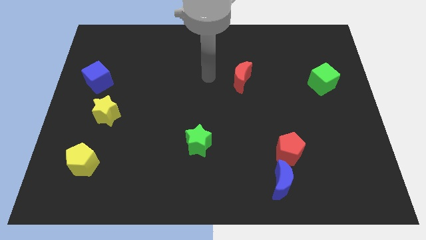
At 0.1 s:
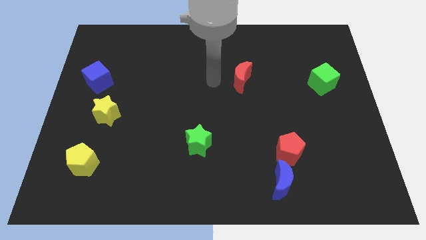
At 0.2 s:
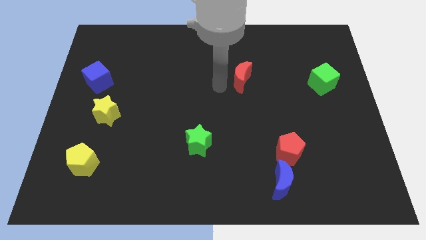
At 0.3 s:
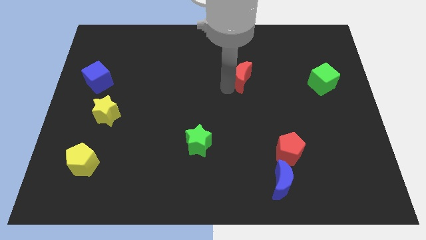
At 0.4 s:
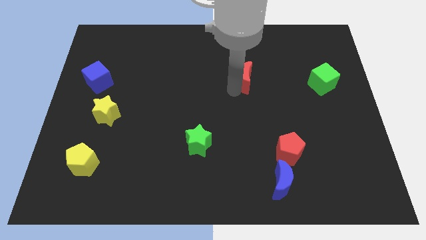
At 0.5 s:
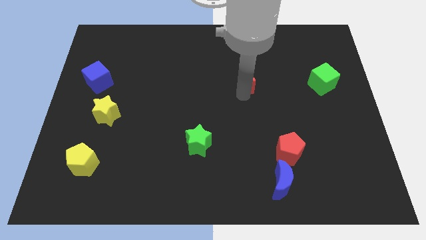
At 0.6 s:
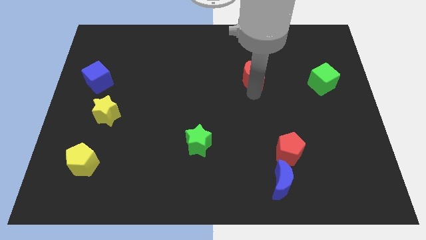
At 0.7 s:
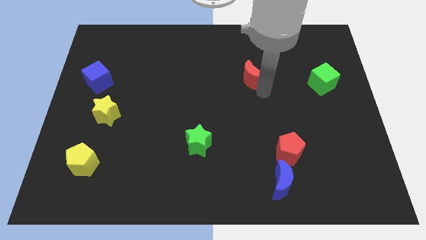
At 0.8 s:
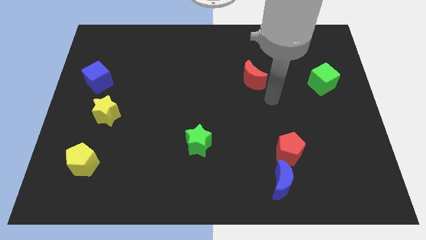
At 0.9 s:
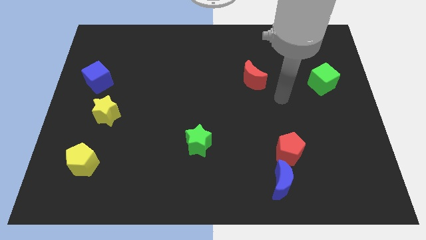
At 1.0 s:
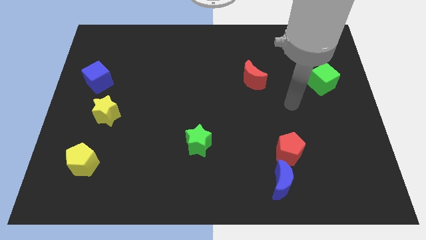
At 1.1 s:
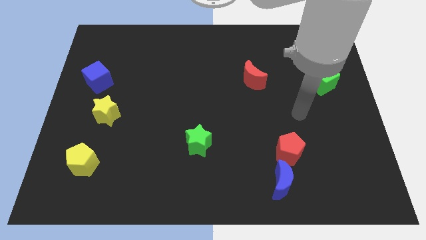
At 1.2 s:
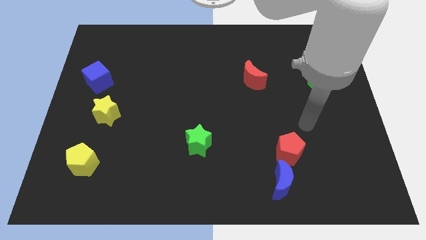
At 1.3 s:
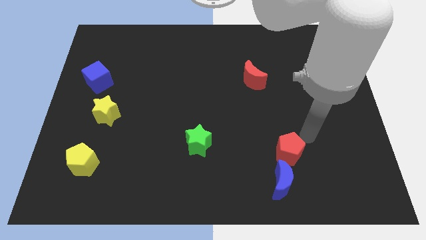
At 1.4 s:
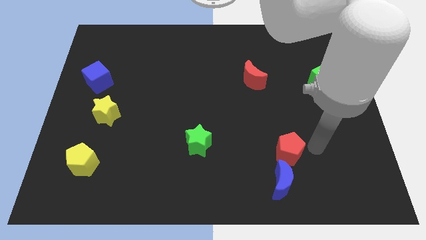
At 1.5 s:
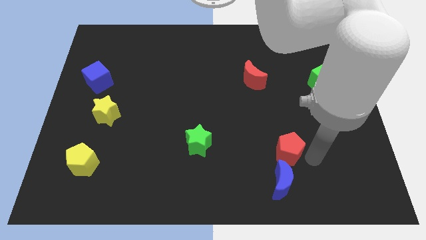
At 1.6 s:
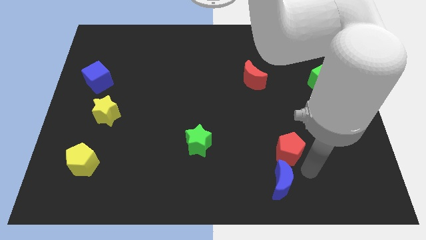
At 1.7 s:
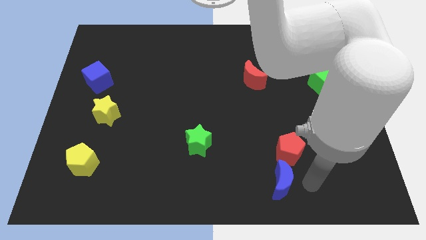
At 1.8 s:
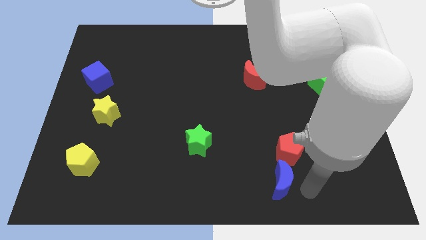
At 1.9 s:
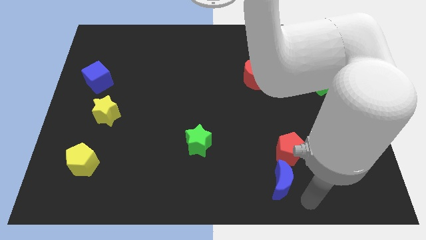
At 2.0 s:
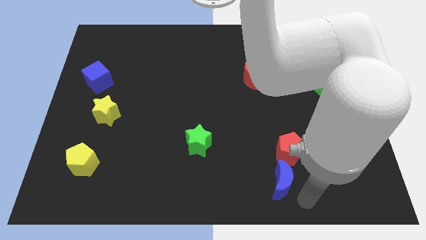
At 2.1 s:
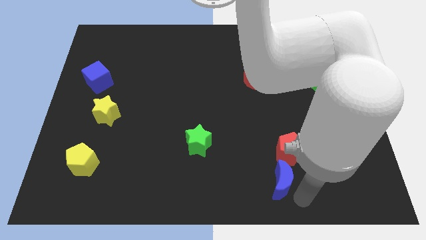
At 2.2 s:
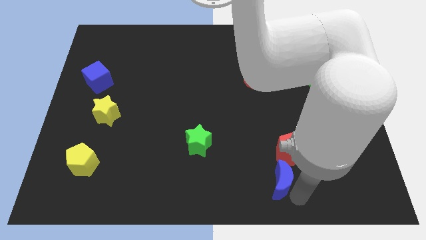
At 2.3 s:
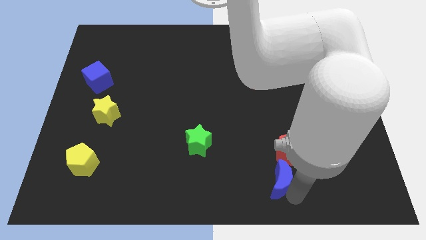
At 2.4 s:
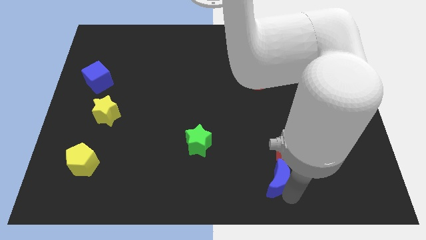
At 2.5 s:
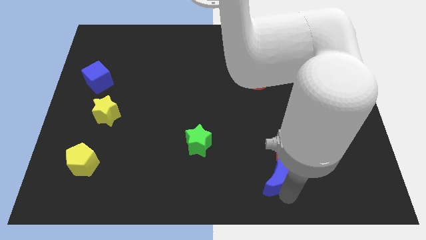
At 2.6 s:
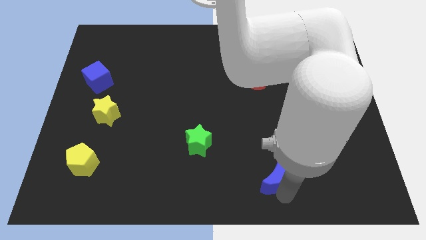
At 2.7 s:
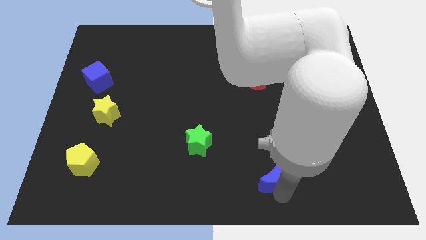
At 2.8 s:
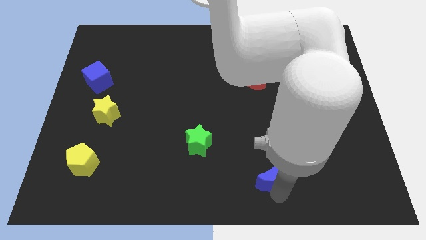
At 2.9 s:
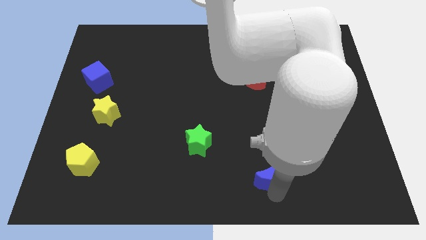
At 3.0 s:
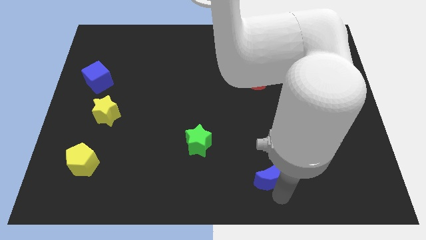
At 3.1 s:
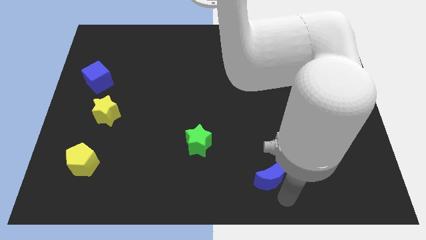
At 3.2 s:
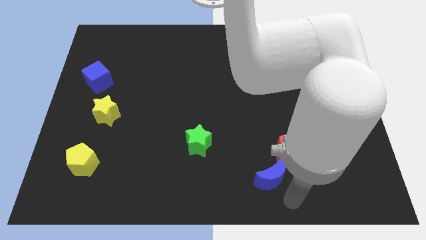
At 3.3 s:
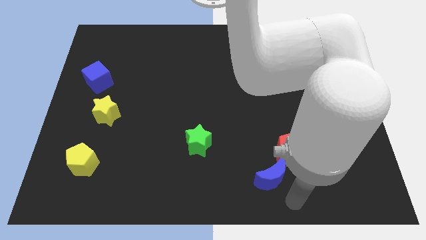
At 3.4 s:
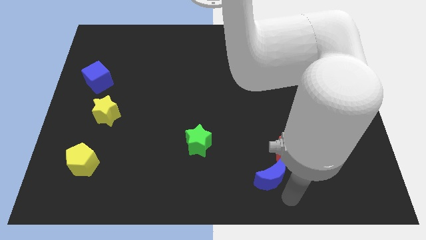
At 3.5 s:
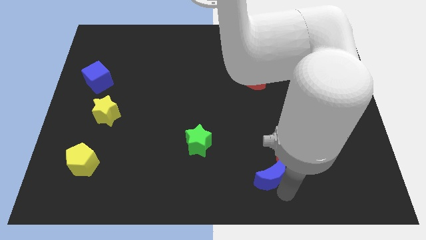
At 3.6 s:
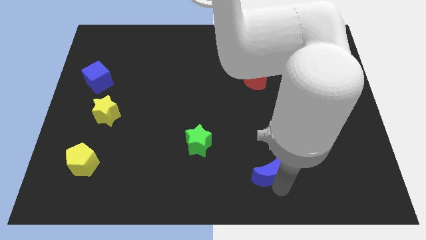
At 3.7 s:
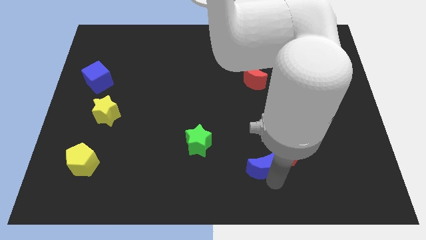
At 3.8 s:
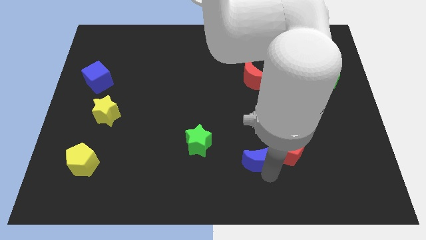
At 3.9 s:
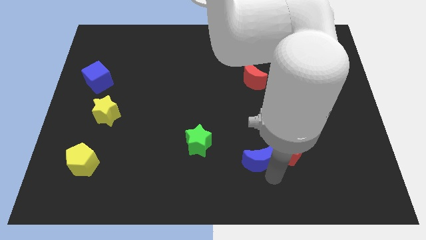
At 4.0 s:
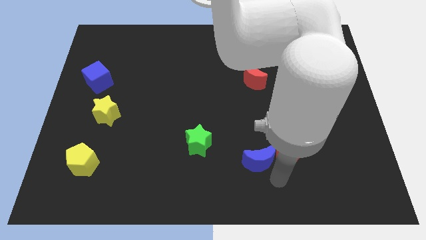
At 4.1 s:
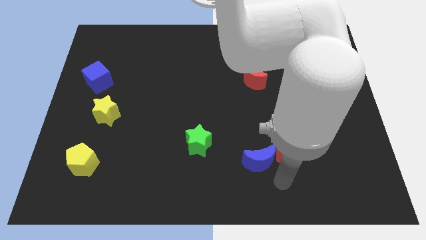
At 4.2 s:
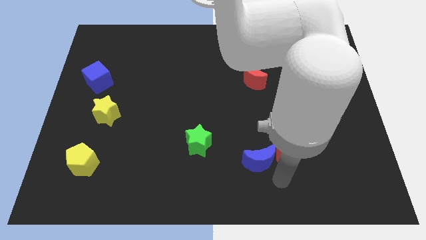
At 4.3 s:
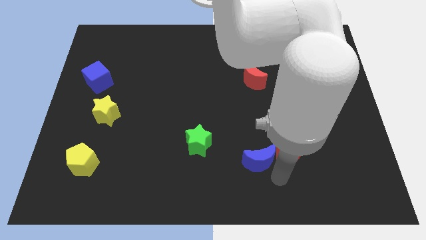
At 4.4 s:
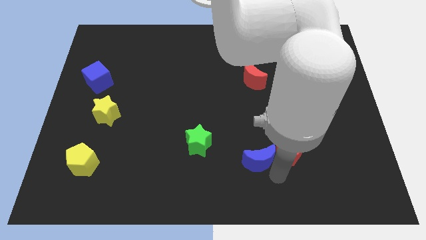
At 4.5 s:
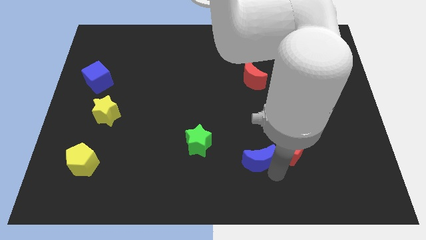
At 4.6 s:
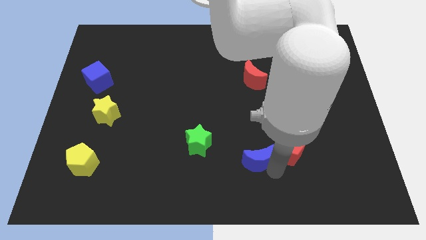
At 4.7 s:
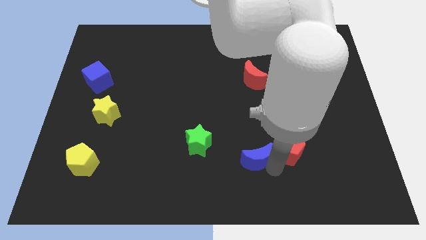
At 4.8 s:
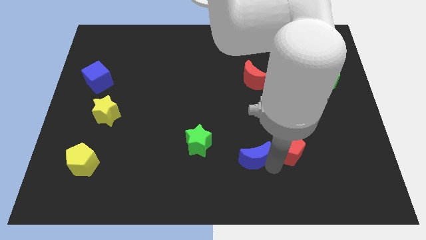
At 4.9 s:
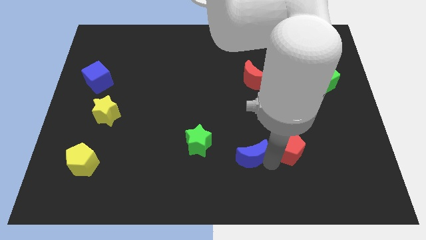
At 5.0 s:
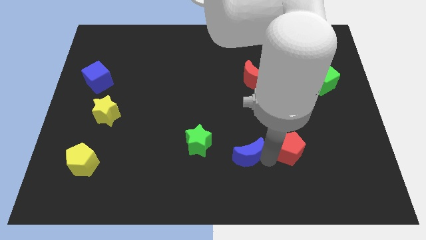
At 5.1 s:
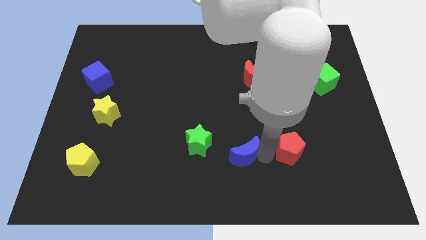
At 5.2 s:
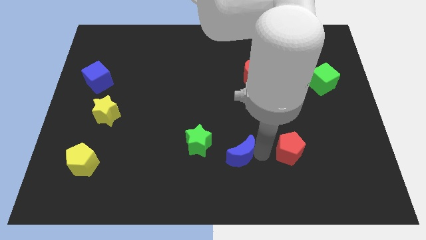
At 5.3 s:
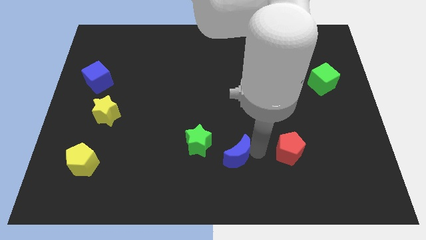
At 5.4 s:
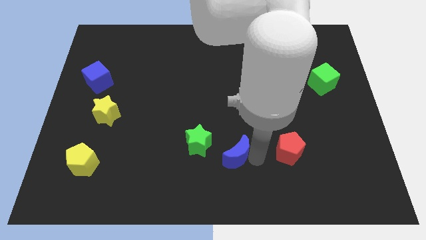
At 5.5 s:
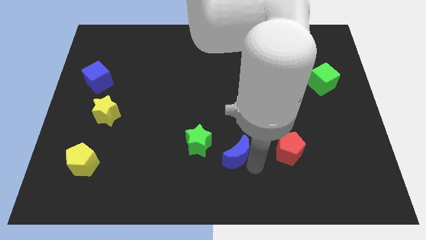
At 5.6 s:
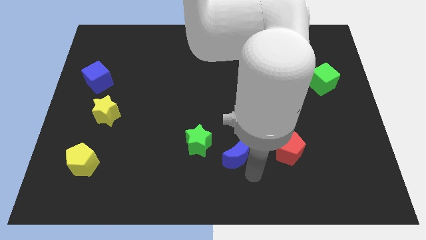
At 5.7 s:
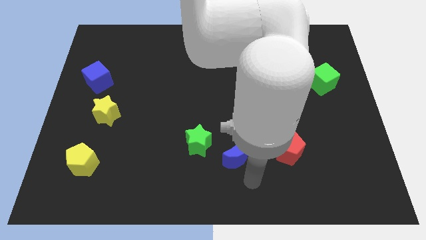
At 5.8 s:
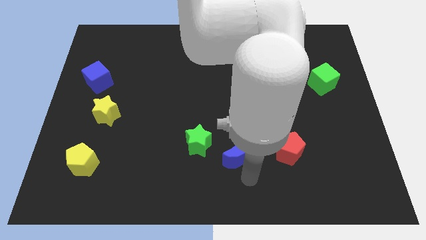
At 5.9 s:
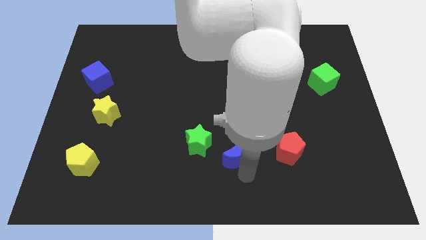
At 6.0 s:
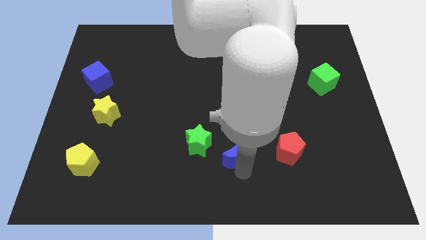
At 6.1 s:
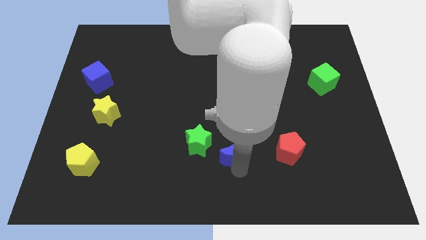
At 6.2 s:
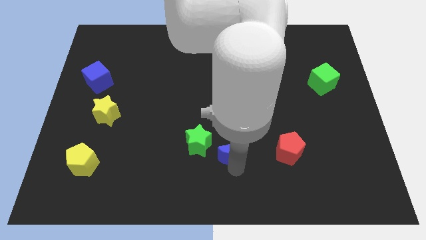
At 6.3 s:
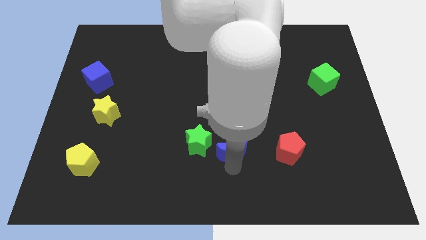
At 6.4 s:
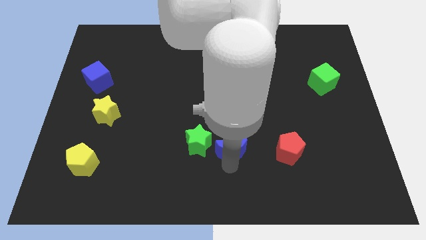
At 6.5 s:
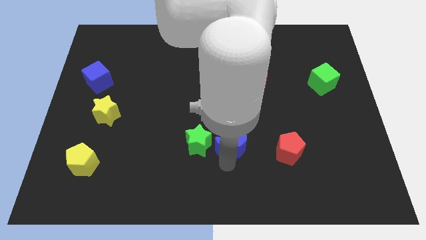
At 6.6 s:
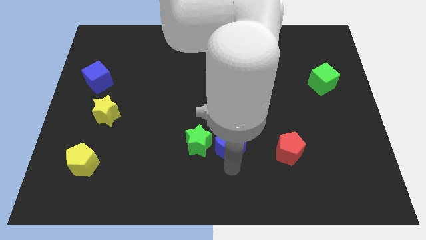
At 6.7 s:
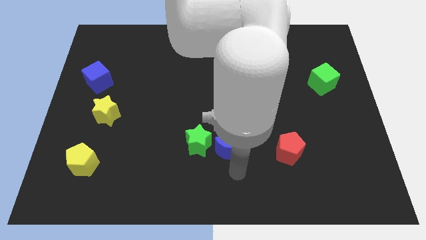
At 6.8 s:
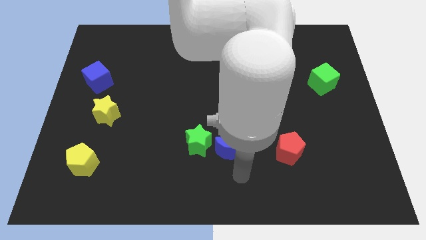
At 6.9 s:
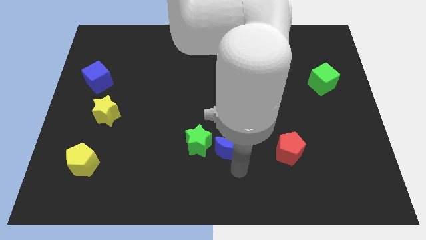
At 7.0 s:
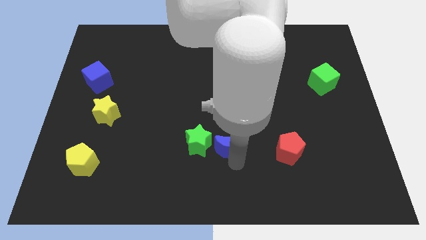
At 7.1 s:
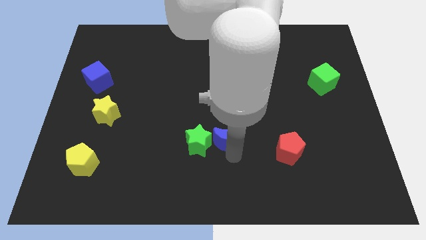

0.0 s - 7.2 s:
slide the blue moon diagonally up and to the right of the green star

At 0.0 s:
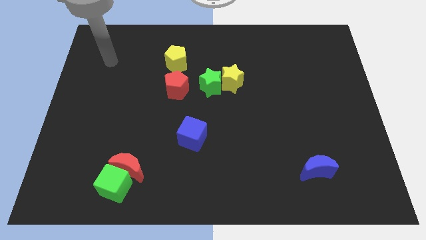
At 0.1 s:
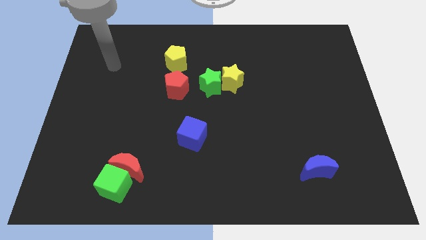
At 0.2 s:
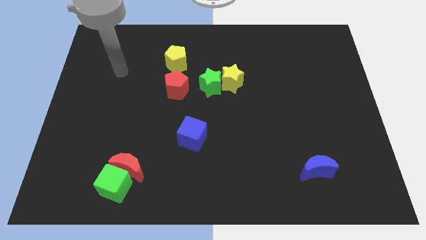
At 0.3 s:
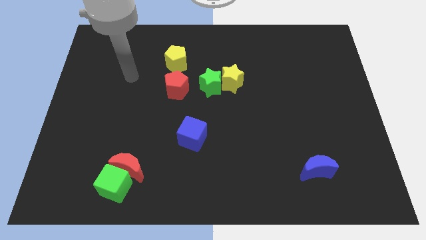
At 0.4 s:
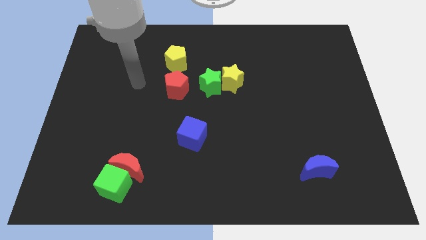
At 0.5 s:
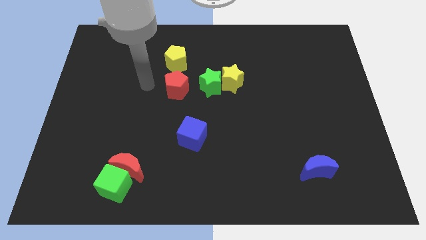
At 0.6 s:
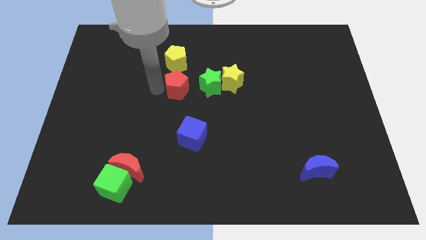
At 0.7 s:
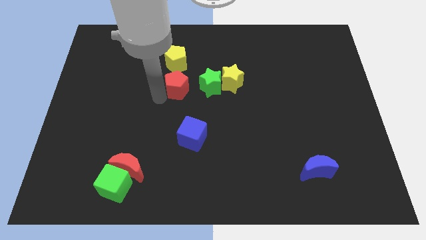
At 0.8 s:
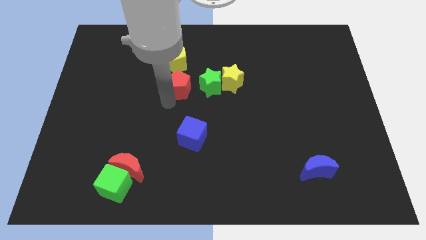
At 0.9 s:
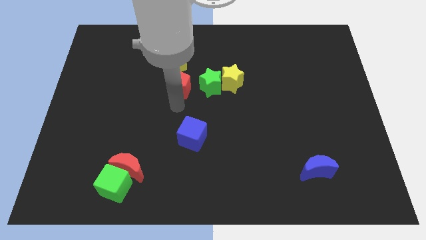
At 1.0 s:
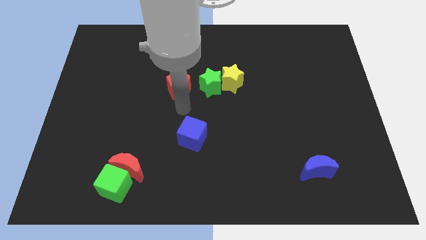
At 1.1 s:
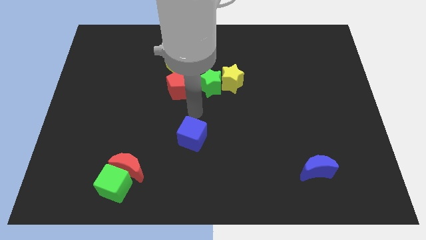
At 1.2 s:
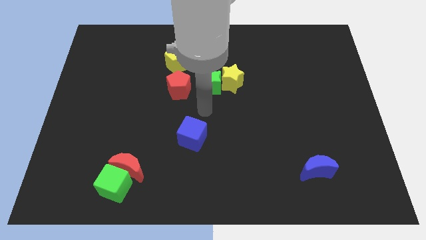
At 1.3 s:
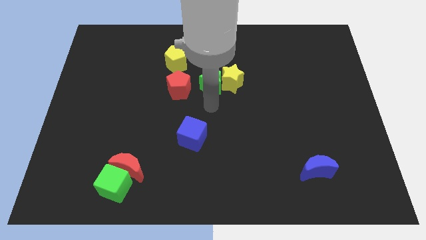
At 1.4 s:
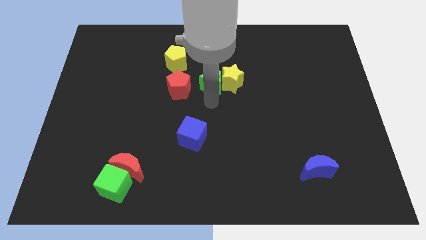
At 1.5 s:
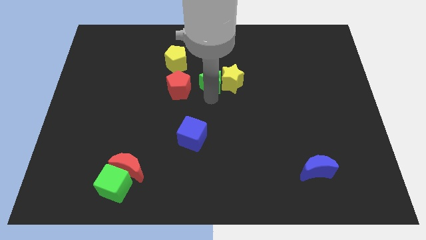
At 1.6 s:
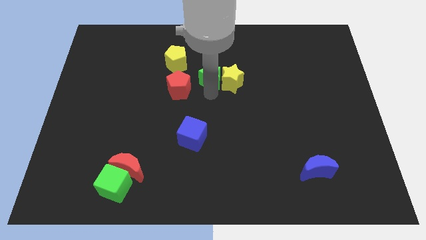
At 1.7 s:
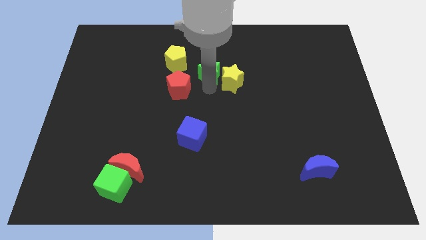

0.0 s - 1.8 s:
put the green star right of the yellow pentagon
